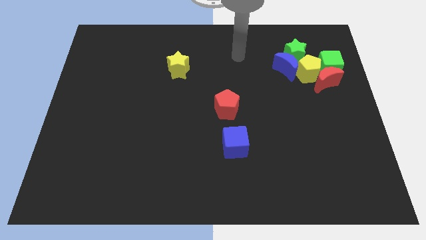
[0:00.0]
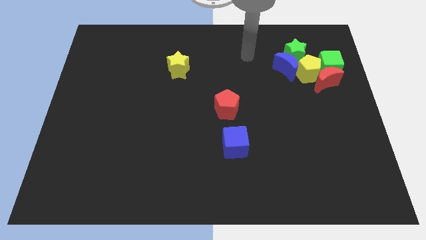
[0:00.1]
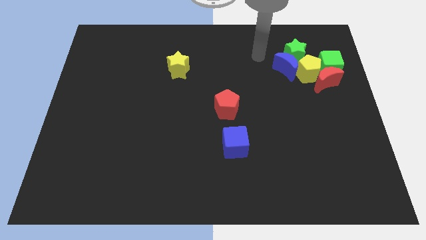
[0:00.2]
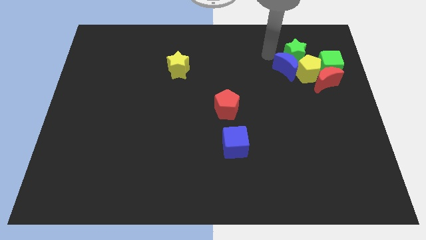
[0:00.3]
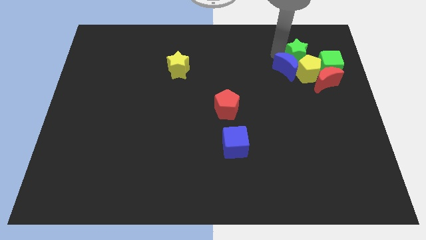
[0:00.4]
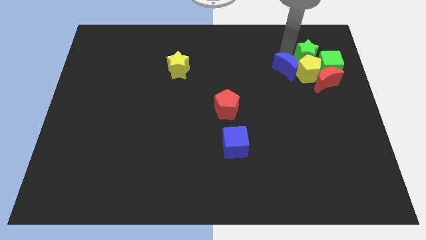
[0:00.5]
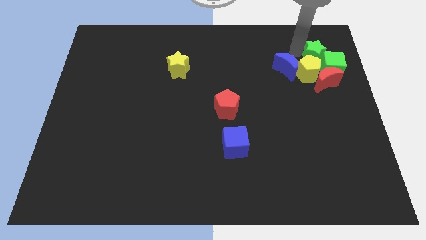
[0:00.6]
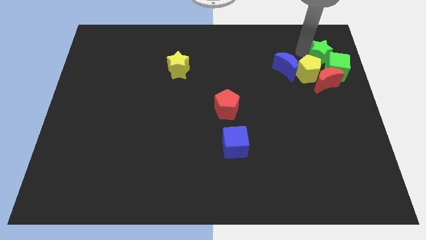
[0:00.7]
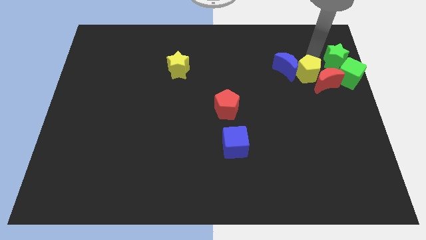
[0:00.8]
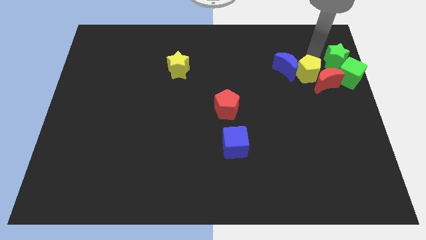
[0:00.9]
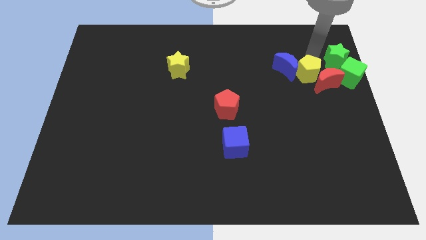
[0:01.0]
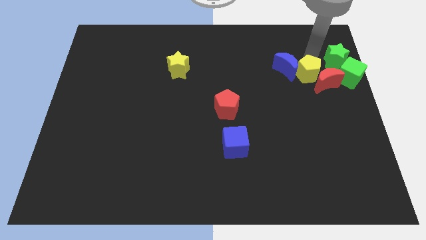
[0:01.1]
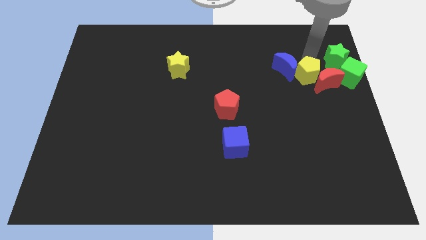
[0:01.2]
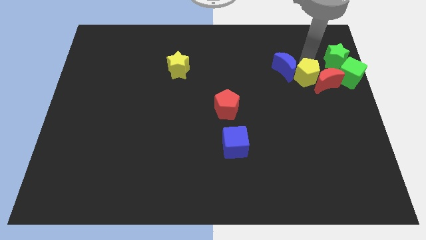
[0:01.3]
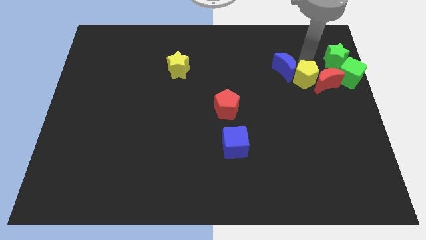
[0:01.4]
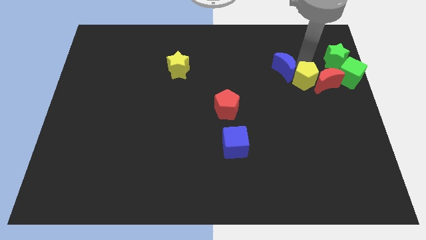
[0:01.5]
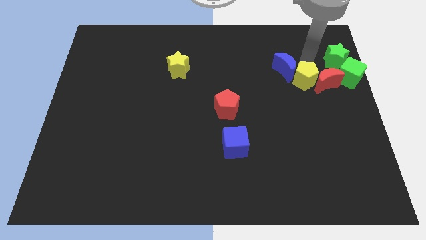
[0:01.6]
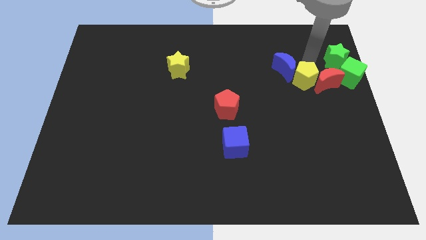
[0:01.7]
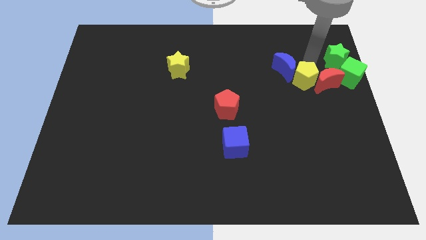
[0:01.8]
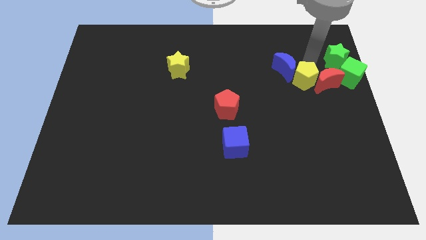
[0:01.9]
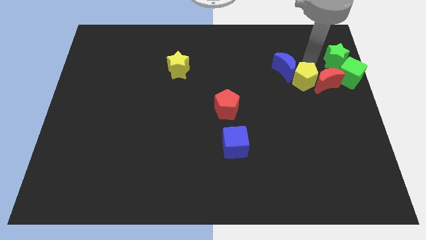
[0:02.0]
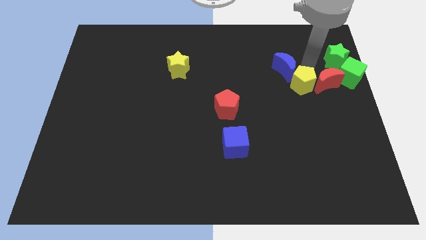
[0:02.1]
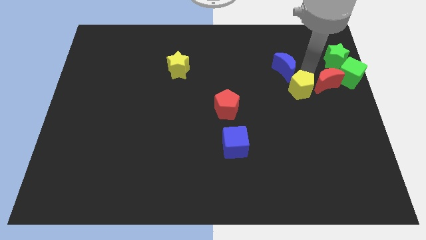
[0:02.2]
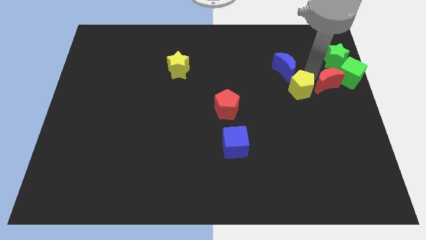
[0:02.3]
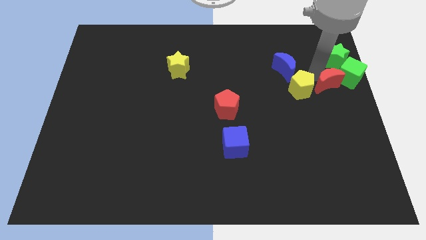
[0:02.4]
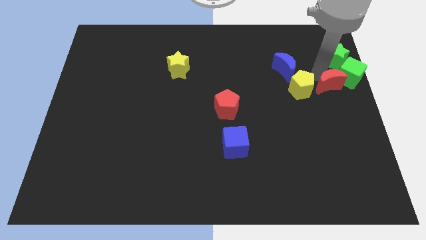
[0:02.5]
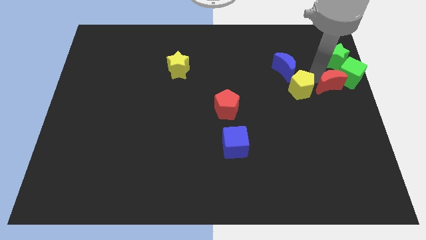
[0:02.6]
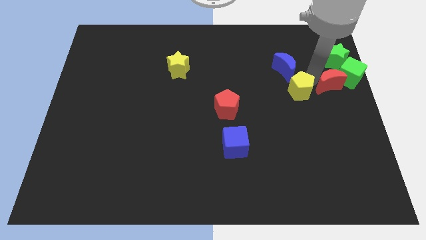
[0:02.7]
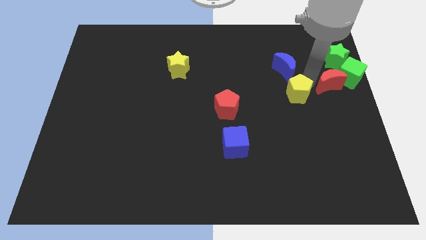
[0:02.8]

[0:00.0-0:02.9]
move the yellow pentagon away from the group

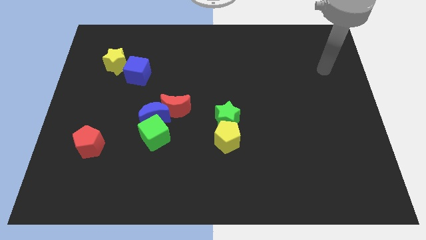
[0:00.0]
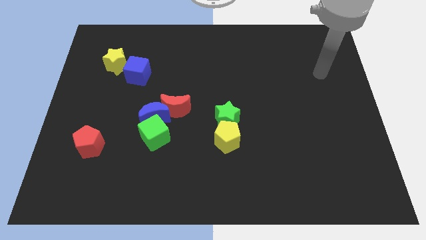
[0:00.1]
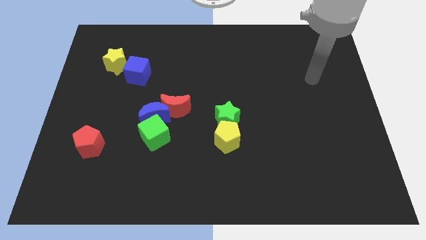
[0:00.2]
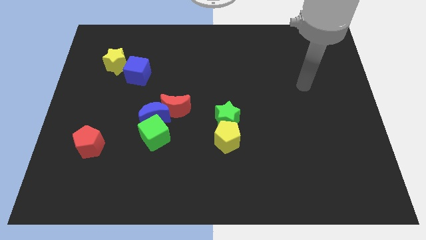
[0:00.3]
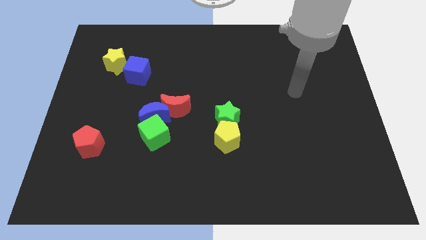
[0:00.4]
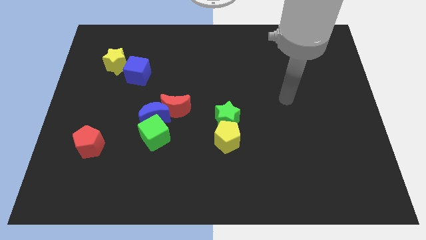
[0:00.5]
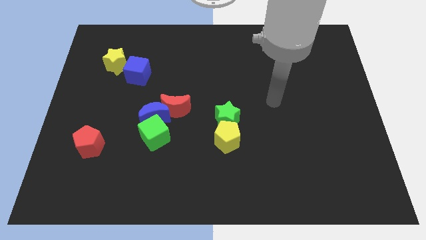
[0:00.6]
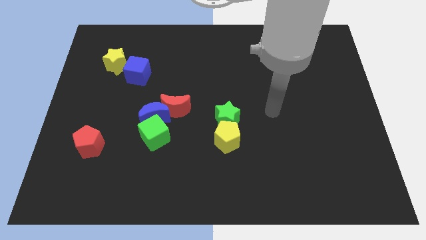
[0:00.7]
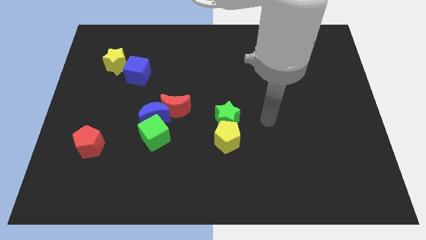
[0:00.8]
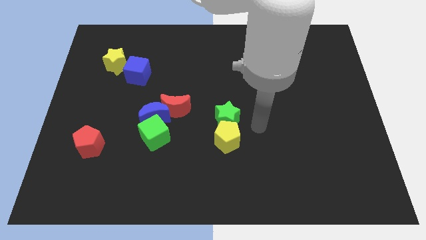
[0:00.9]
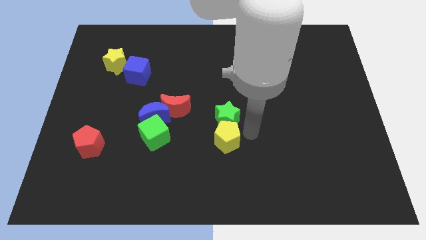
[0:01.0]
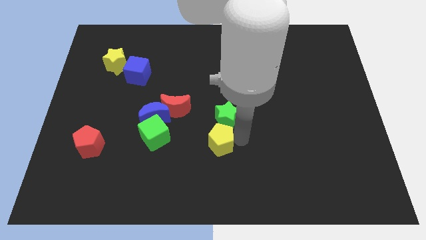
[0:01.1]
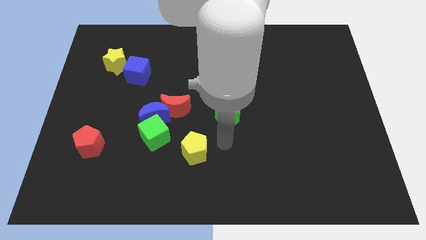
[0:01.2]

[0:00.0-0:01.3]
separate the green star from the yellow pentagon

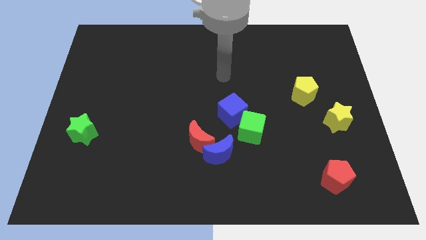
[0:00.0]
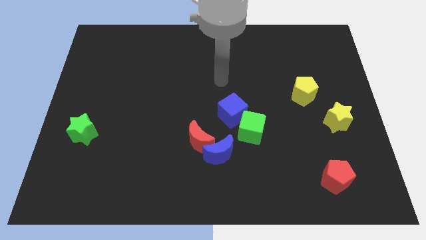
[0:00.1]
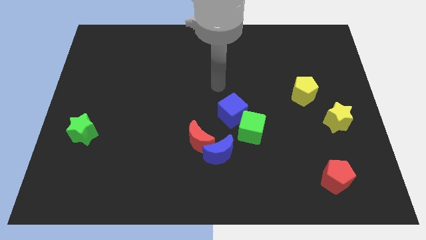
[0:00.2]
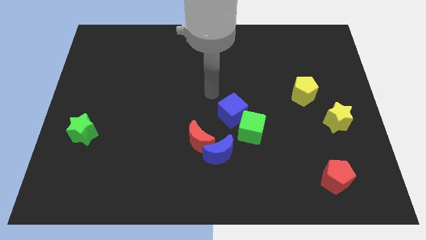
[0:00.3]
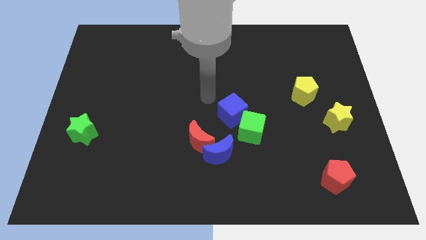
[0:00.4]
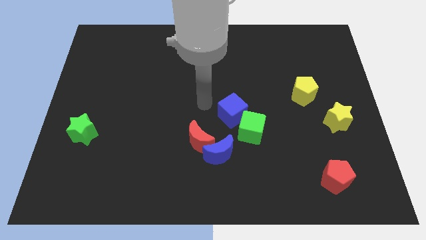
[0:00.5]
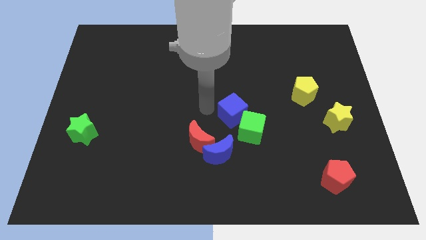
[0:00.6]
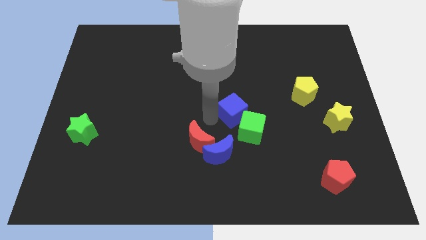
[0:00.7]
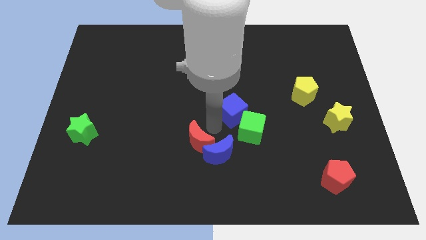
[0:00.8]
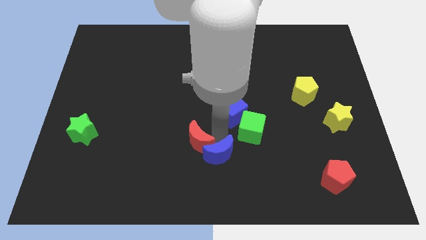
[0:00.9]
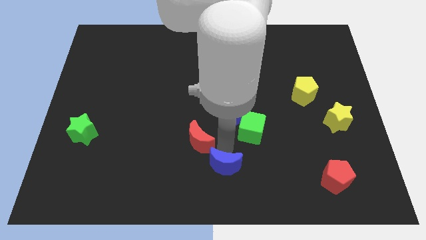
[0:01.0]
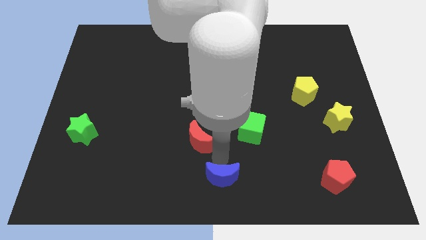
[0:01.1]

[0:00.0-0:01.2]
separate the red moon from the blue moon

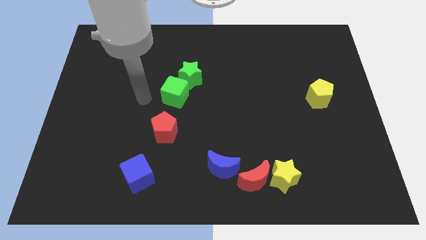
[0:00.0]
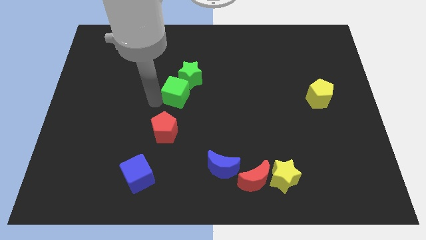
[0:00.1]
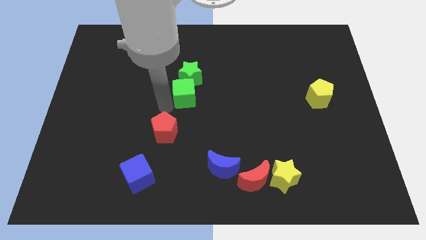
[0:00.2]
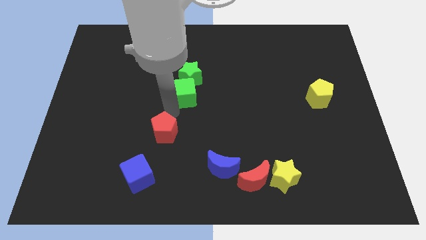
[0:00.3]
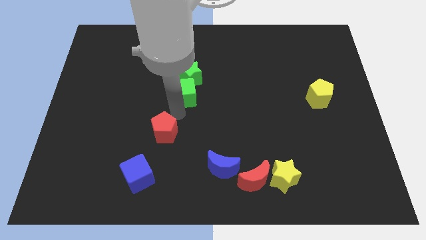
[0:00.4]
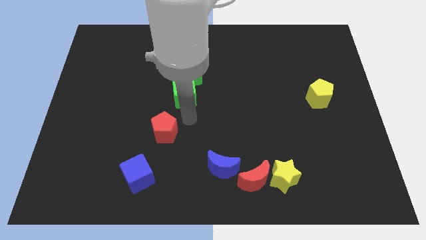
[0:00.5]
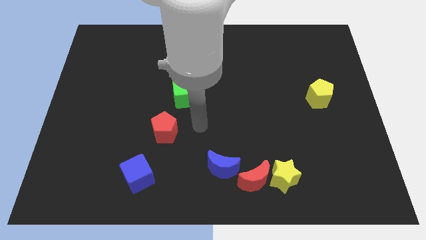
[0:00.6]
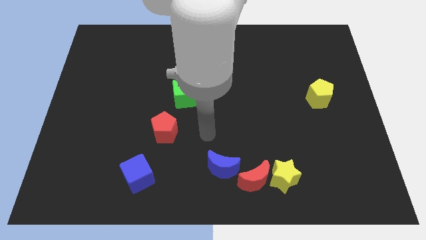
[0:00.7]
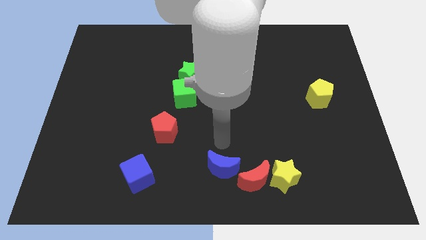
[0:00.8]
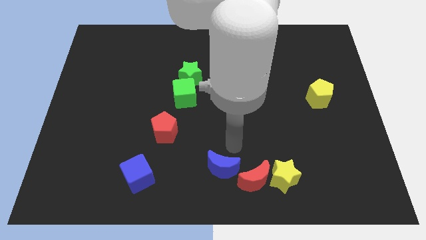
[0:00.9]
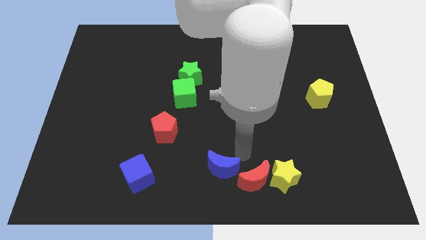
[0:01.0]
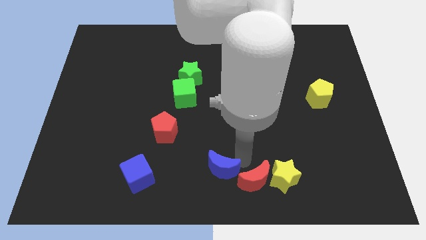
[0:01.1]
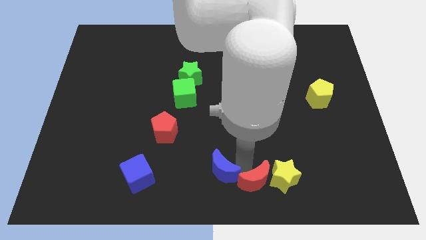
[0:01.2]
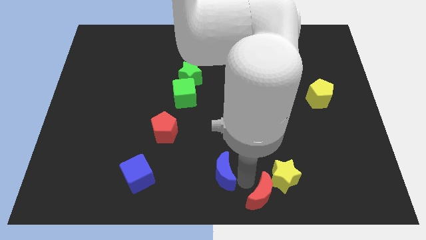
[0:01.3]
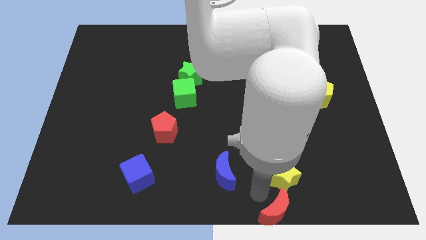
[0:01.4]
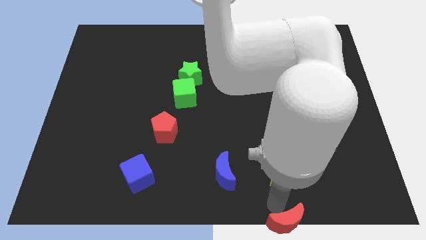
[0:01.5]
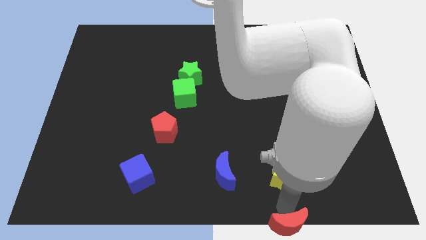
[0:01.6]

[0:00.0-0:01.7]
move the yellow star away from the red moon

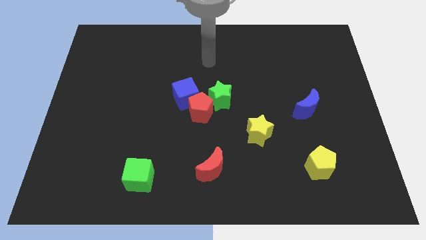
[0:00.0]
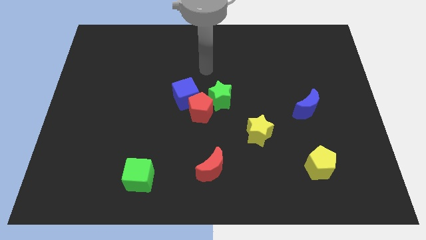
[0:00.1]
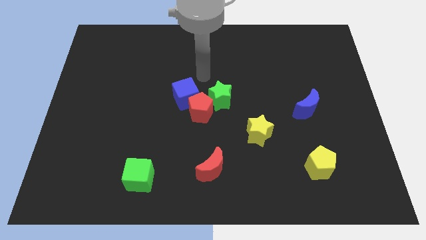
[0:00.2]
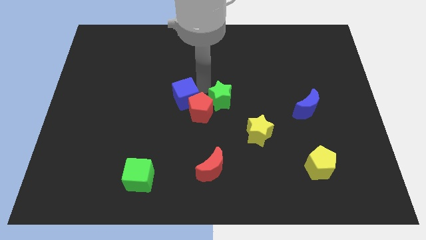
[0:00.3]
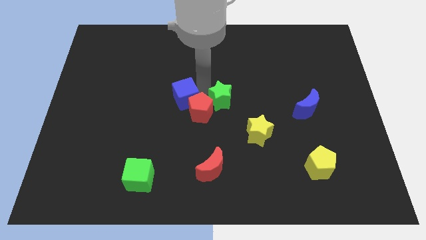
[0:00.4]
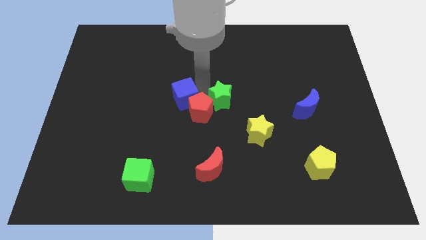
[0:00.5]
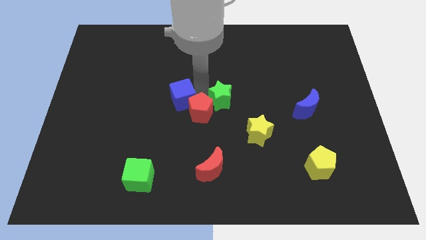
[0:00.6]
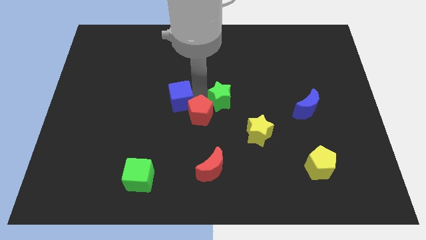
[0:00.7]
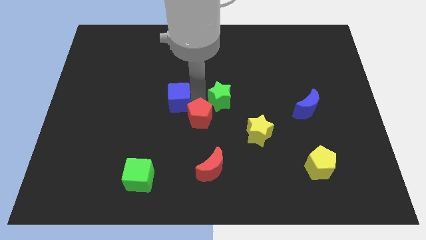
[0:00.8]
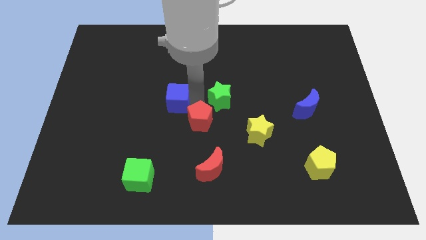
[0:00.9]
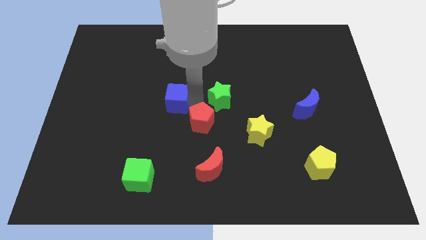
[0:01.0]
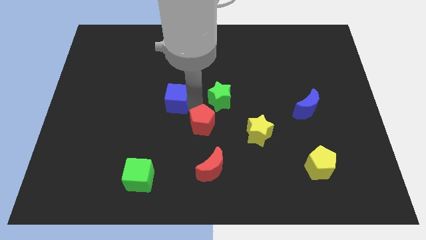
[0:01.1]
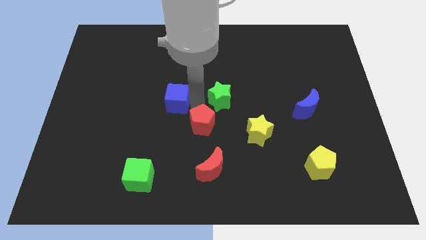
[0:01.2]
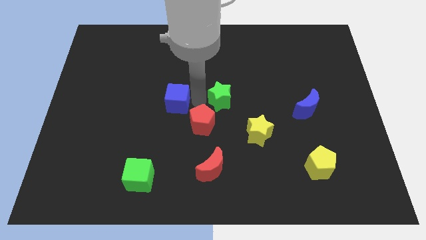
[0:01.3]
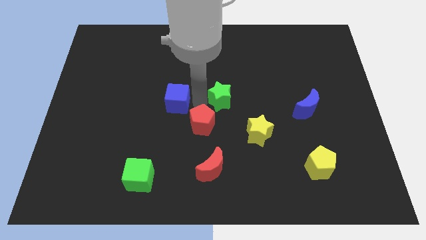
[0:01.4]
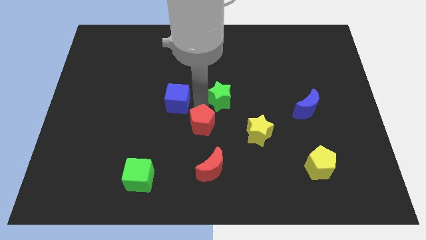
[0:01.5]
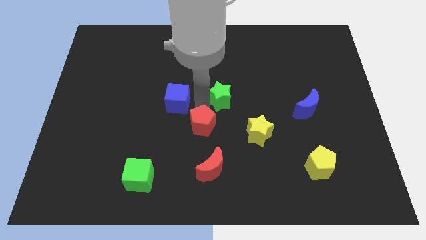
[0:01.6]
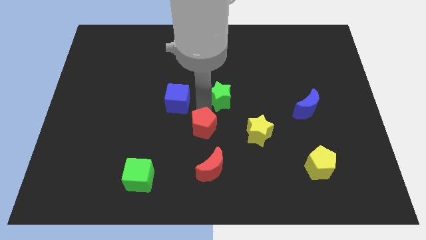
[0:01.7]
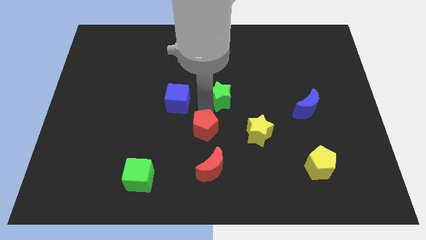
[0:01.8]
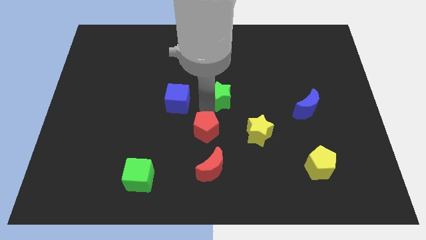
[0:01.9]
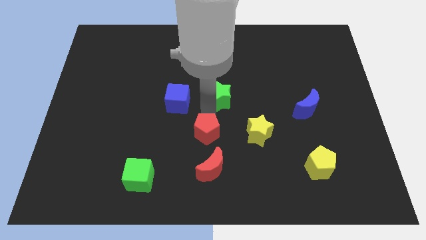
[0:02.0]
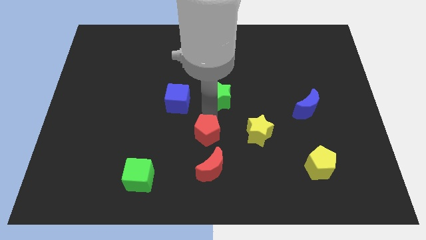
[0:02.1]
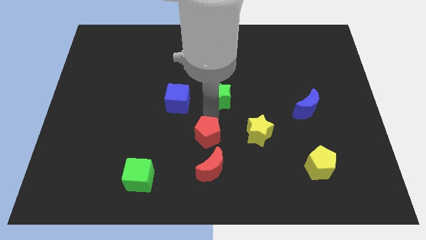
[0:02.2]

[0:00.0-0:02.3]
pull the red pentagon apart from the green star and blue cube

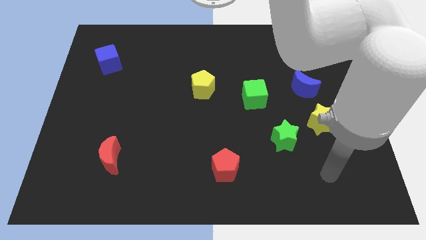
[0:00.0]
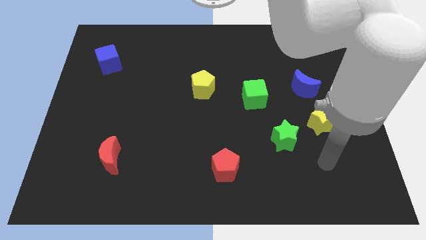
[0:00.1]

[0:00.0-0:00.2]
pull the green star apart from the yellow star
